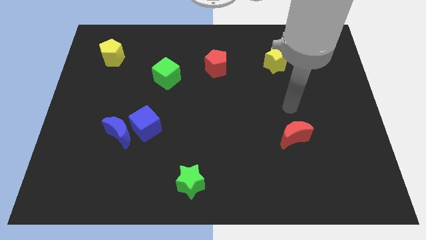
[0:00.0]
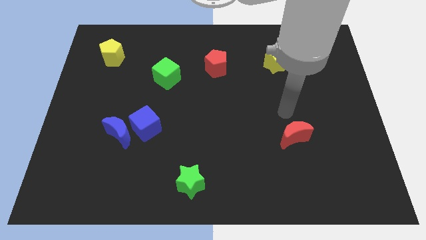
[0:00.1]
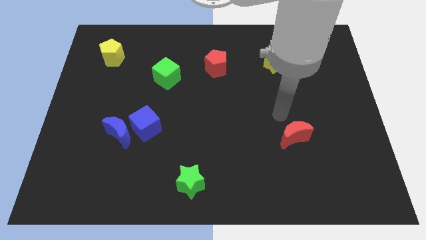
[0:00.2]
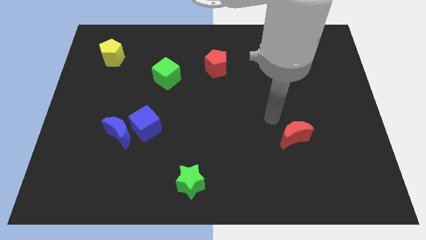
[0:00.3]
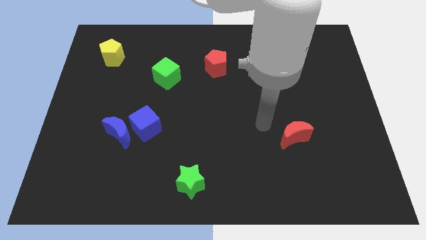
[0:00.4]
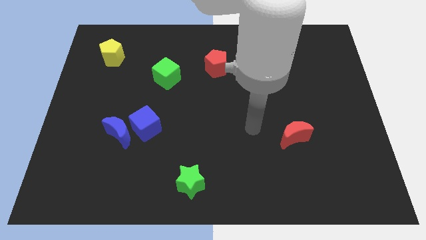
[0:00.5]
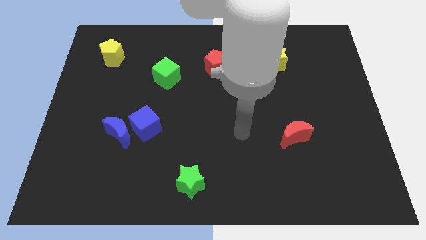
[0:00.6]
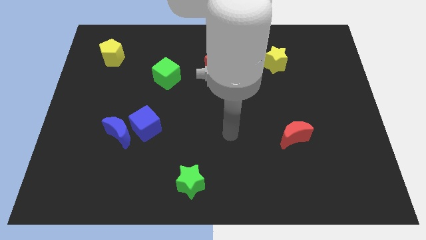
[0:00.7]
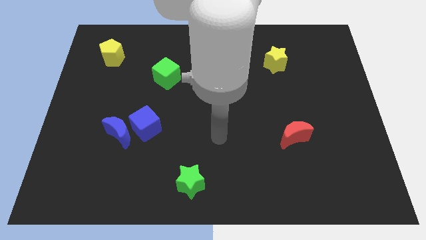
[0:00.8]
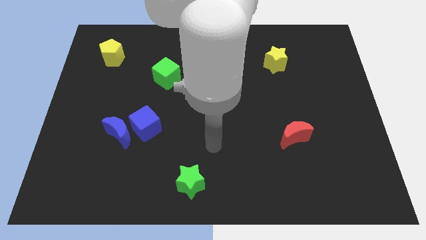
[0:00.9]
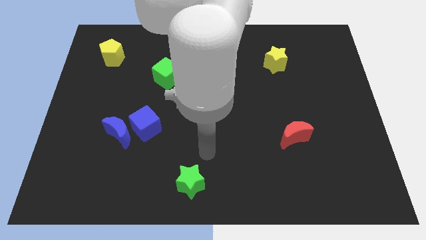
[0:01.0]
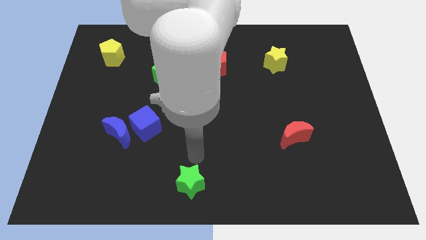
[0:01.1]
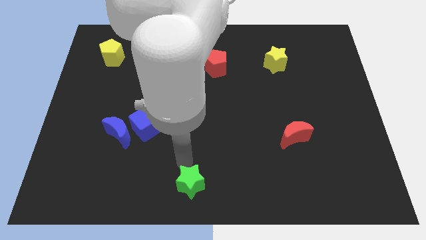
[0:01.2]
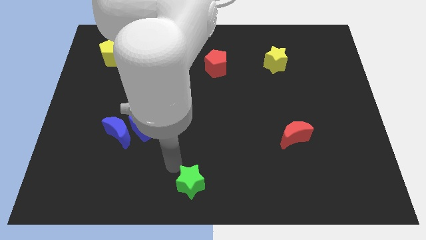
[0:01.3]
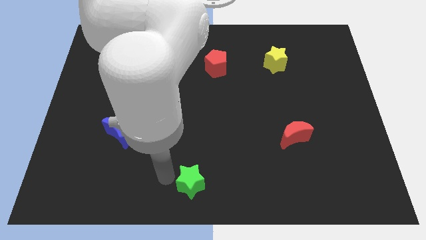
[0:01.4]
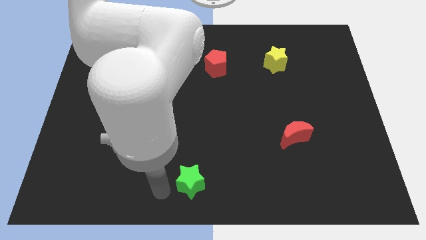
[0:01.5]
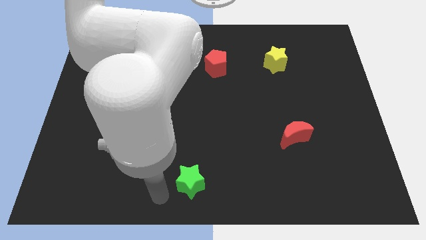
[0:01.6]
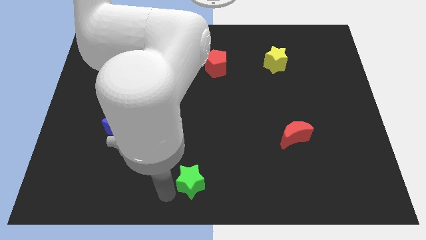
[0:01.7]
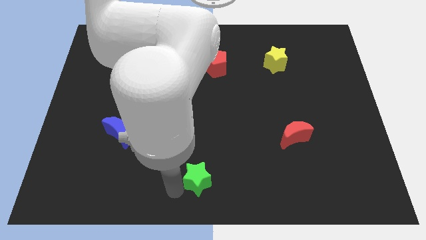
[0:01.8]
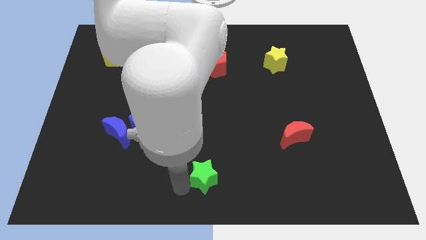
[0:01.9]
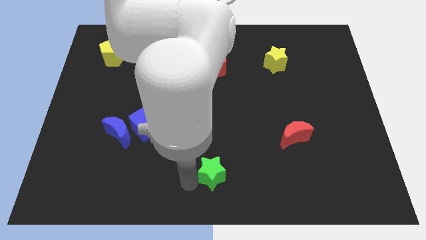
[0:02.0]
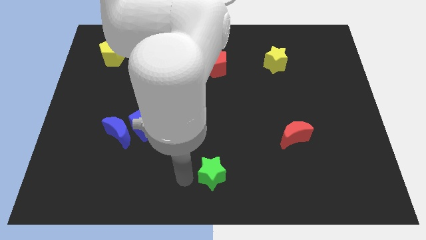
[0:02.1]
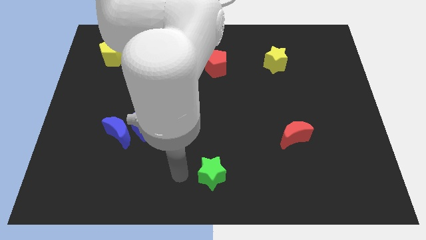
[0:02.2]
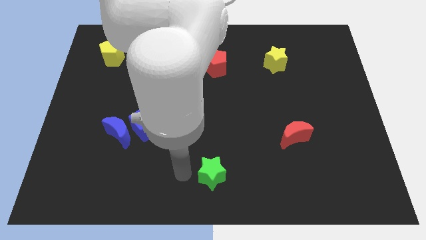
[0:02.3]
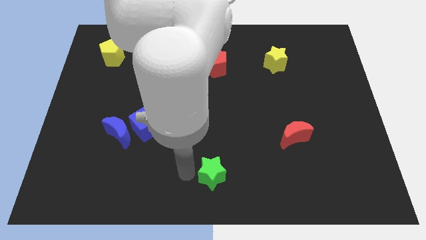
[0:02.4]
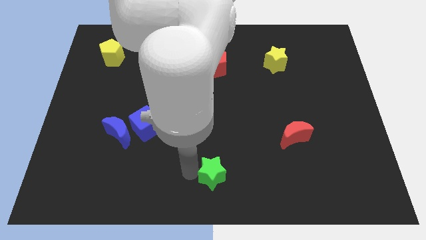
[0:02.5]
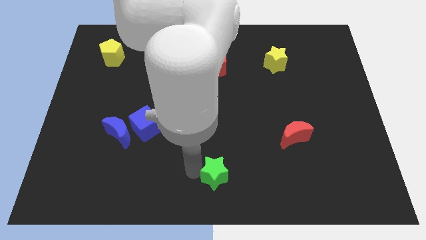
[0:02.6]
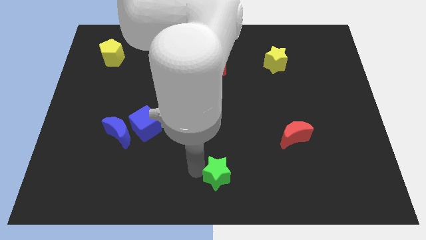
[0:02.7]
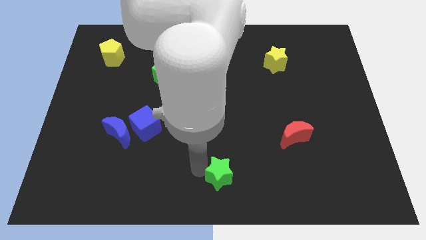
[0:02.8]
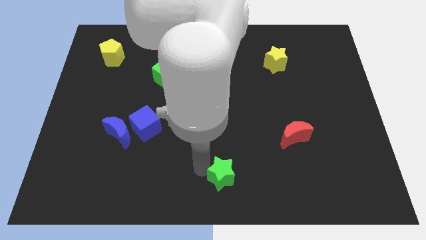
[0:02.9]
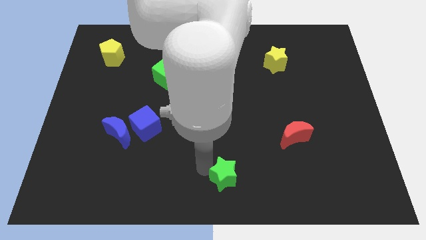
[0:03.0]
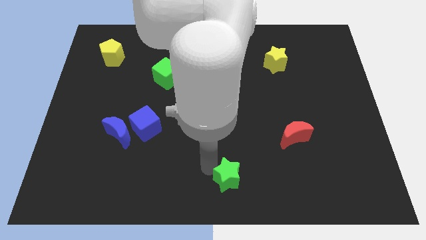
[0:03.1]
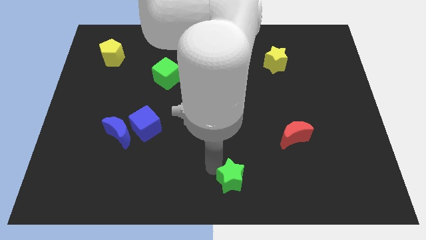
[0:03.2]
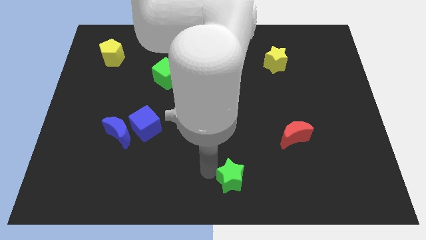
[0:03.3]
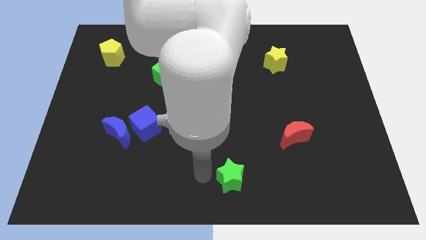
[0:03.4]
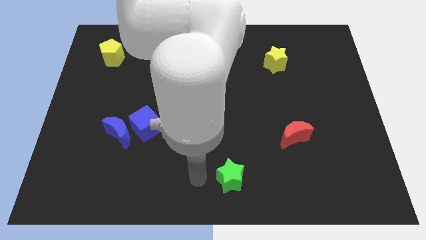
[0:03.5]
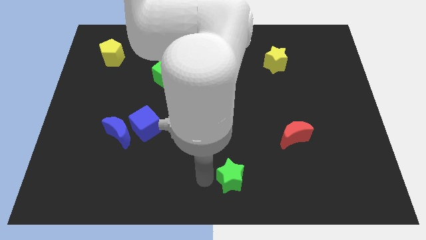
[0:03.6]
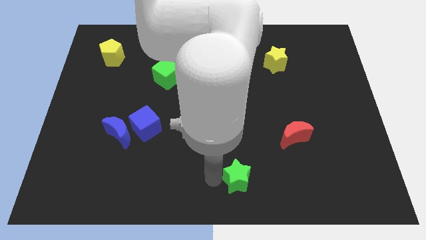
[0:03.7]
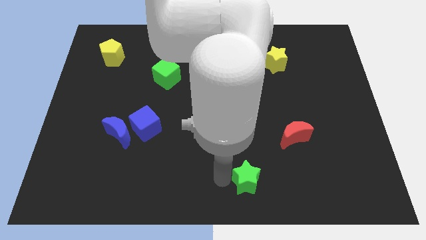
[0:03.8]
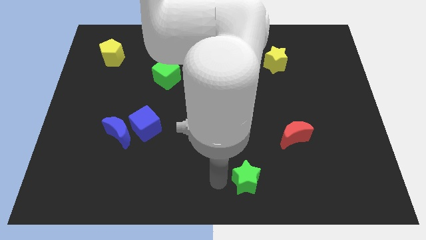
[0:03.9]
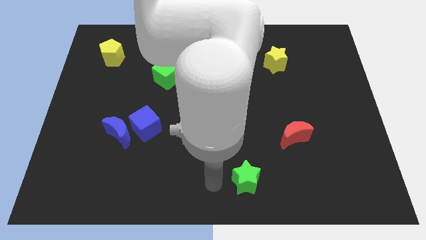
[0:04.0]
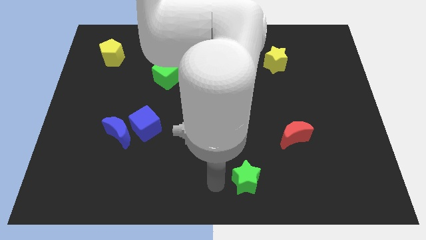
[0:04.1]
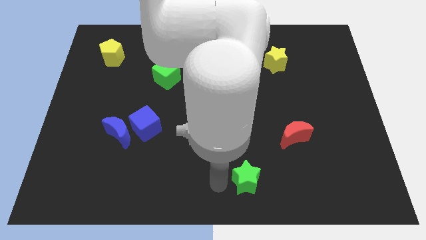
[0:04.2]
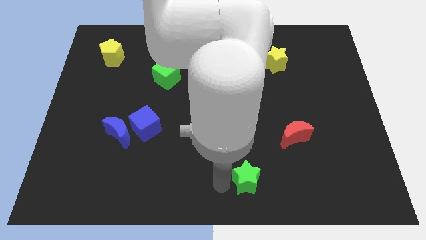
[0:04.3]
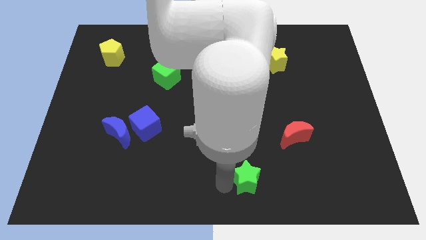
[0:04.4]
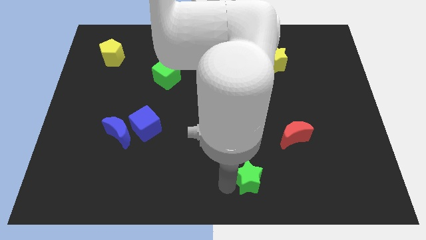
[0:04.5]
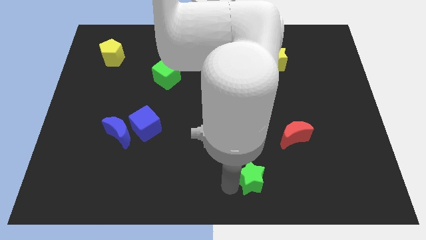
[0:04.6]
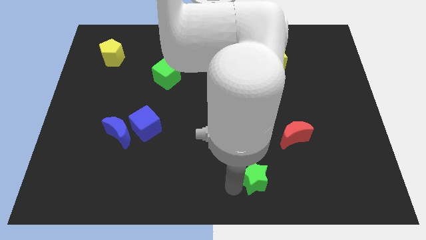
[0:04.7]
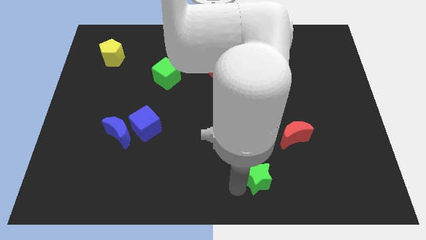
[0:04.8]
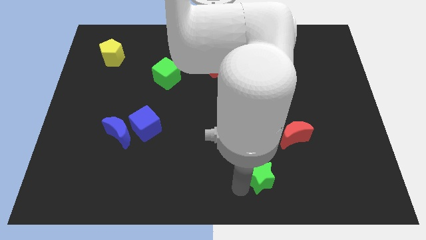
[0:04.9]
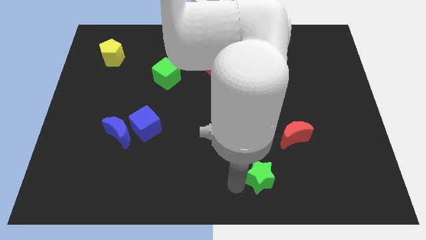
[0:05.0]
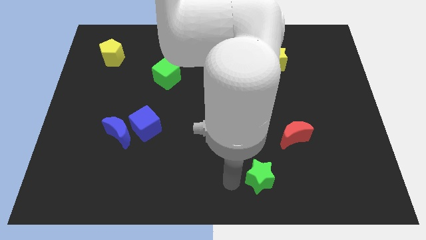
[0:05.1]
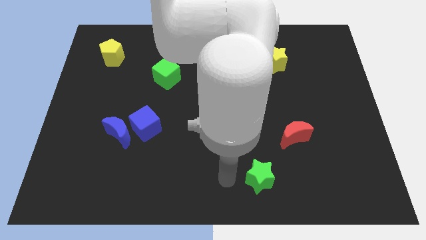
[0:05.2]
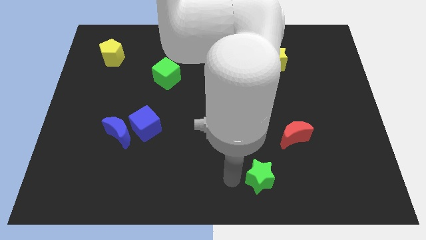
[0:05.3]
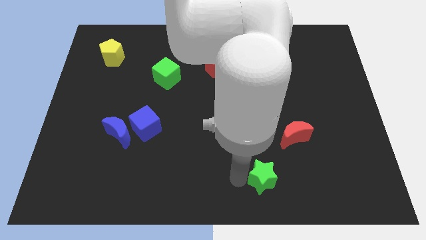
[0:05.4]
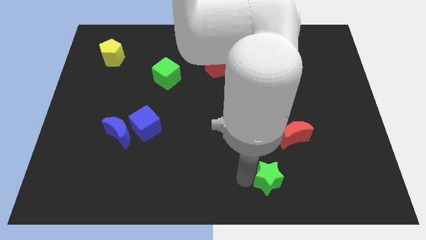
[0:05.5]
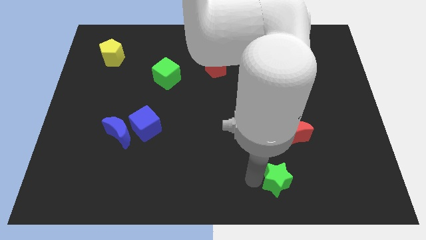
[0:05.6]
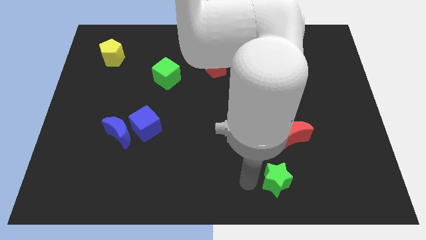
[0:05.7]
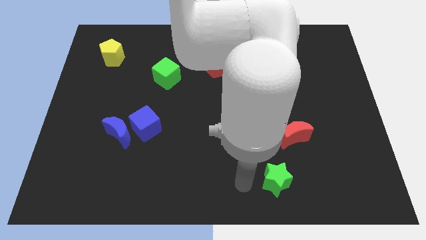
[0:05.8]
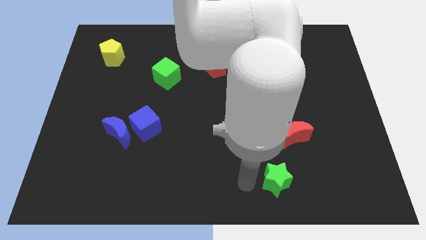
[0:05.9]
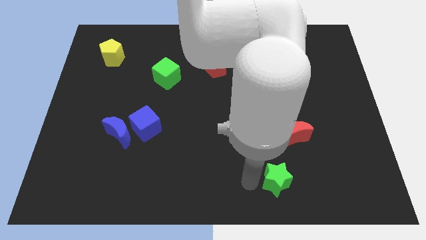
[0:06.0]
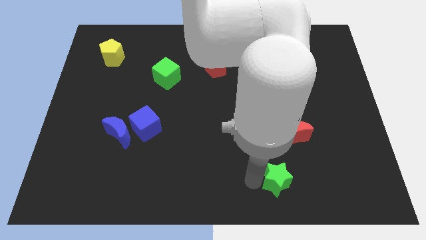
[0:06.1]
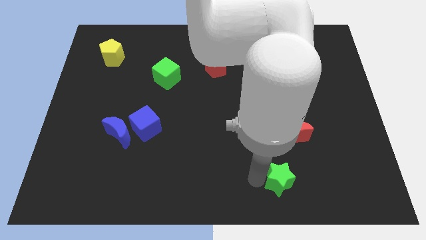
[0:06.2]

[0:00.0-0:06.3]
move the green star to the bottom side of the red moon
